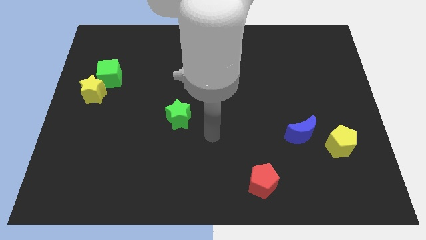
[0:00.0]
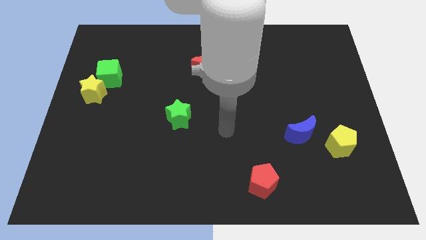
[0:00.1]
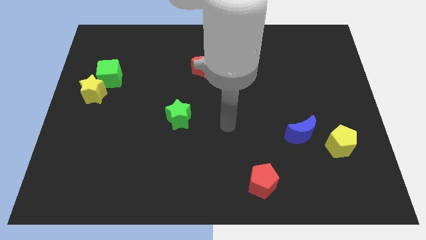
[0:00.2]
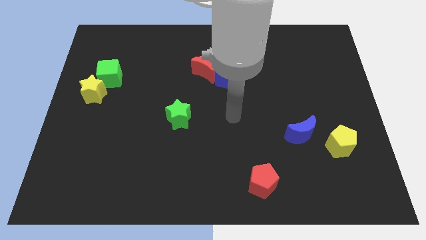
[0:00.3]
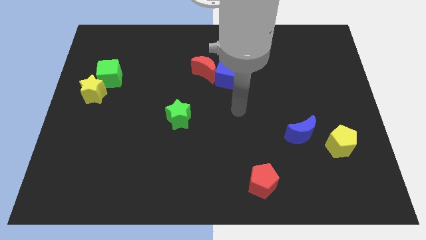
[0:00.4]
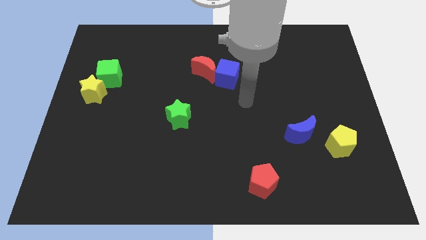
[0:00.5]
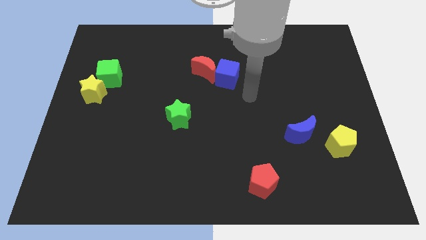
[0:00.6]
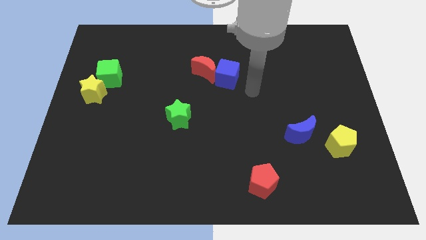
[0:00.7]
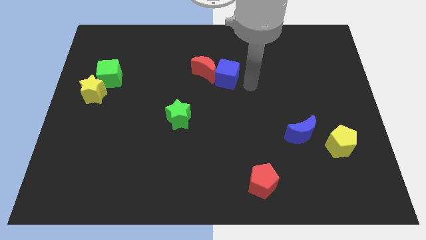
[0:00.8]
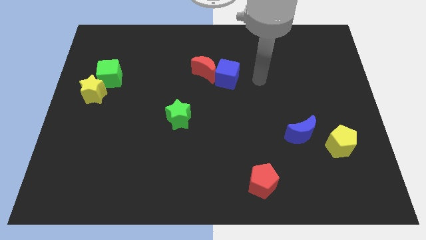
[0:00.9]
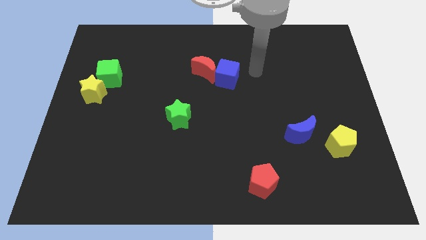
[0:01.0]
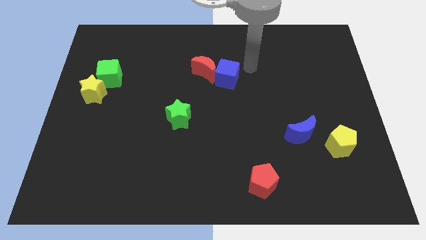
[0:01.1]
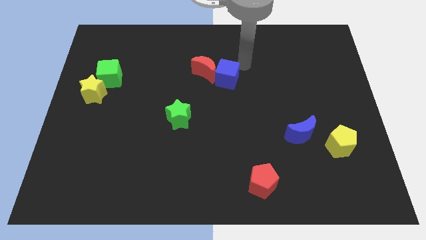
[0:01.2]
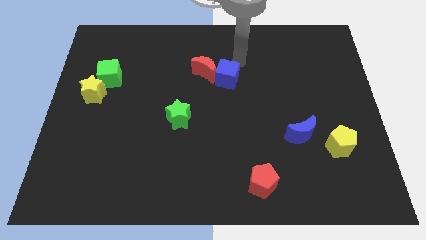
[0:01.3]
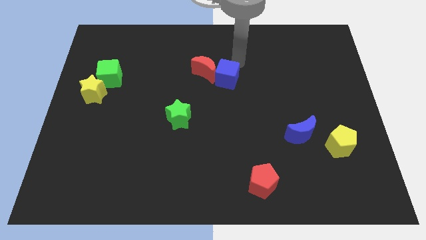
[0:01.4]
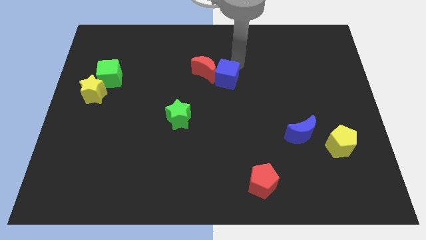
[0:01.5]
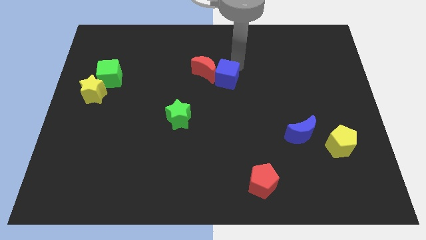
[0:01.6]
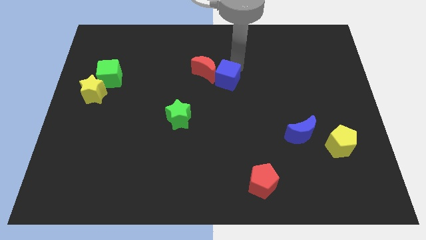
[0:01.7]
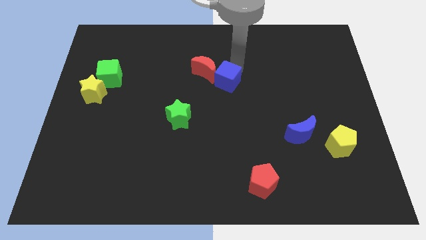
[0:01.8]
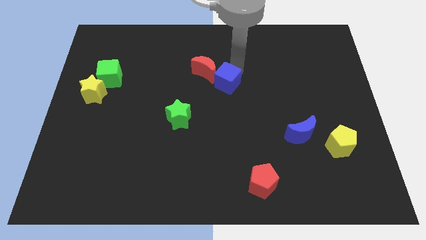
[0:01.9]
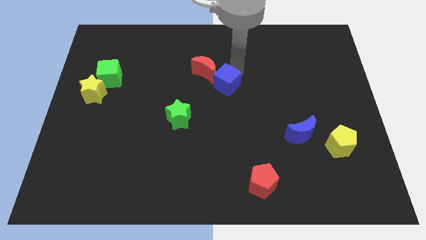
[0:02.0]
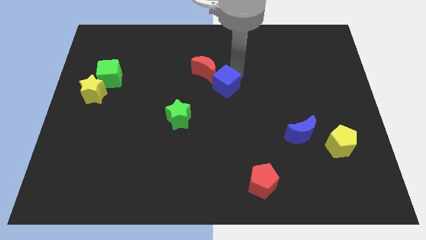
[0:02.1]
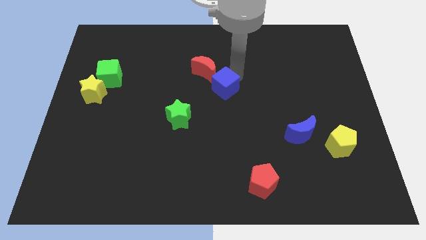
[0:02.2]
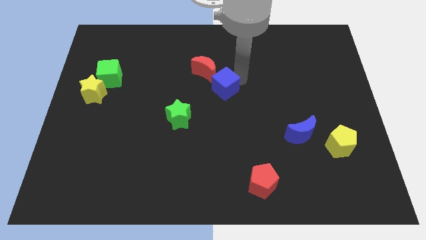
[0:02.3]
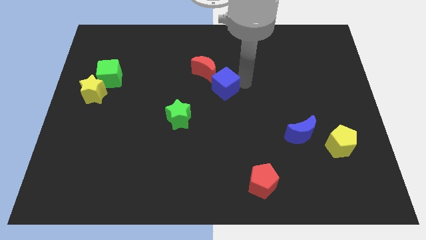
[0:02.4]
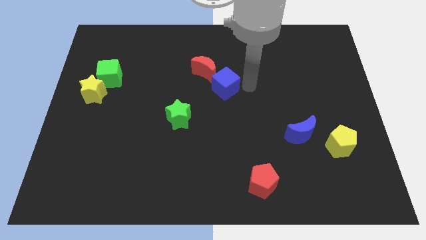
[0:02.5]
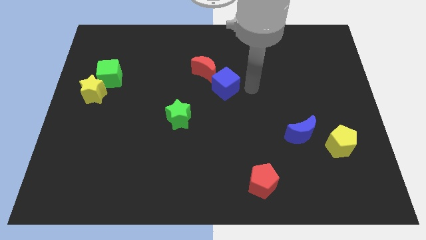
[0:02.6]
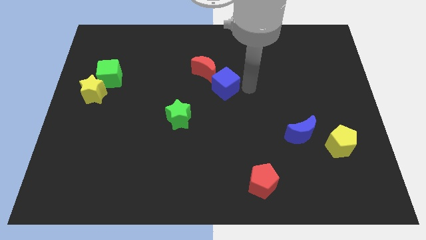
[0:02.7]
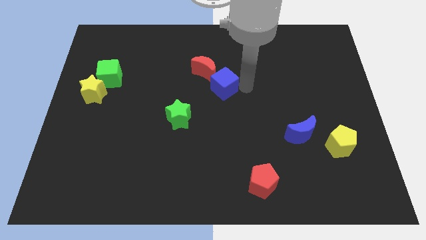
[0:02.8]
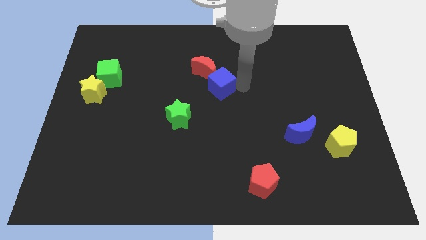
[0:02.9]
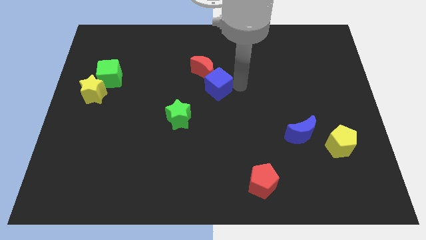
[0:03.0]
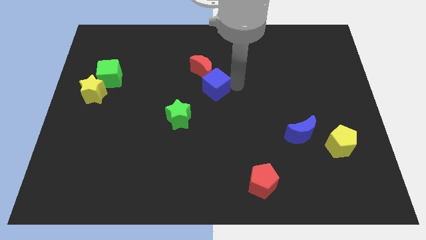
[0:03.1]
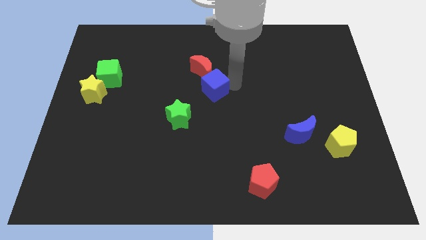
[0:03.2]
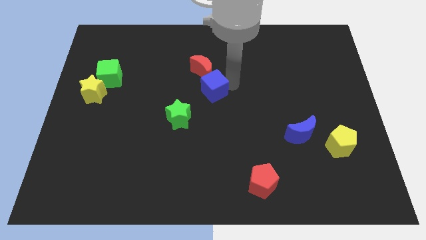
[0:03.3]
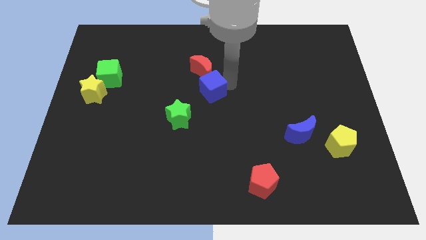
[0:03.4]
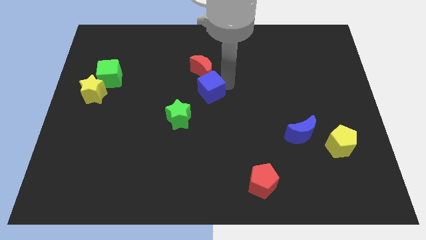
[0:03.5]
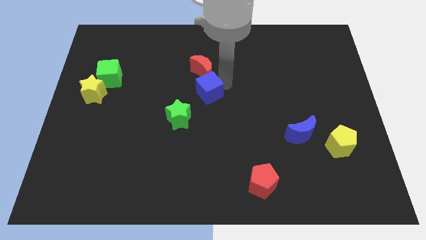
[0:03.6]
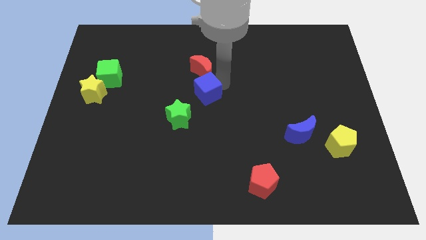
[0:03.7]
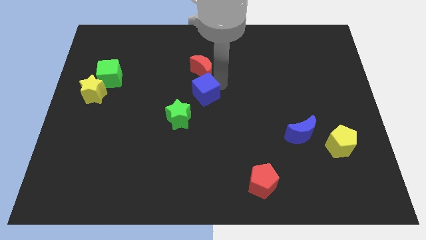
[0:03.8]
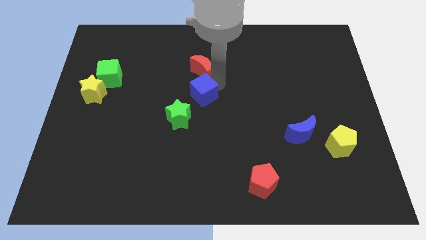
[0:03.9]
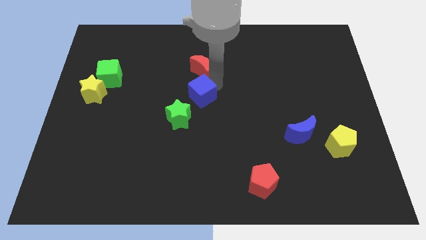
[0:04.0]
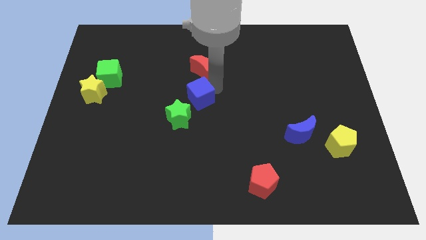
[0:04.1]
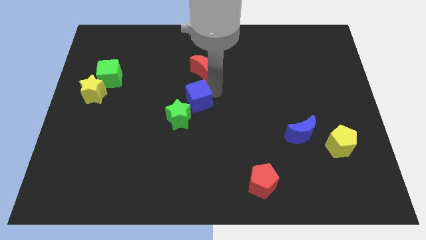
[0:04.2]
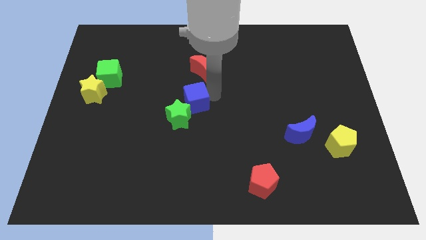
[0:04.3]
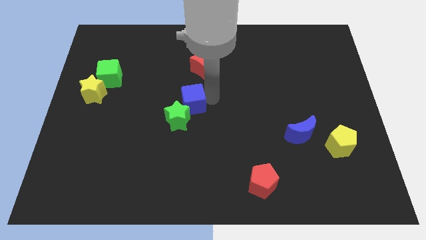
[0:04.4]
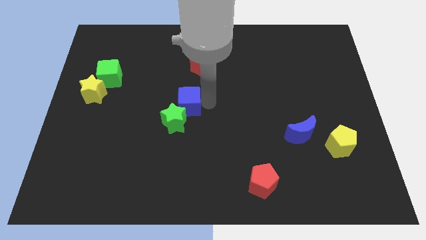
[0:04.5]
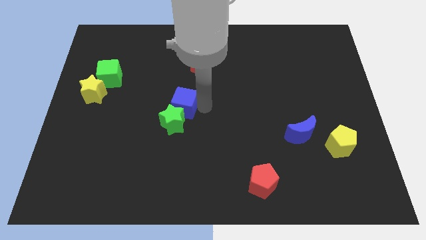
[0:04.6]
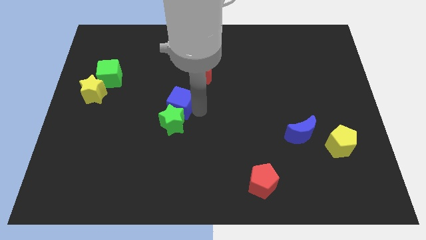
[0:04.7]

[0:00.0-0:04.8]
push the blue cube somewhat to the left

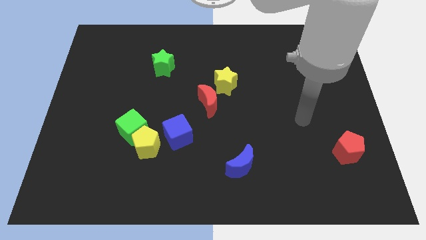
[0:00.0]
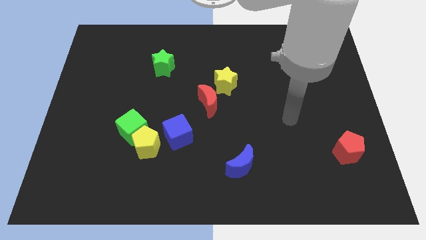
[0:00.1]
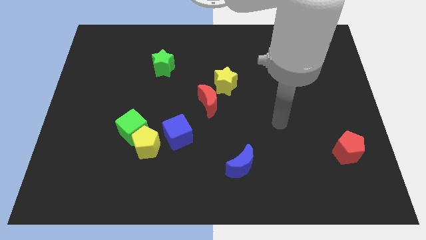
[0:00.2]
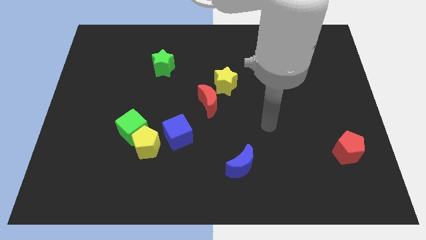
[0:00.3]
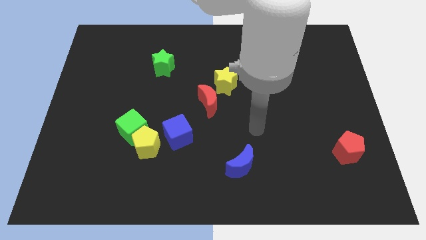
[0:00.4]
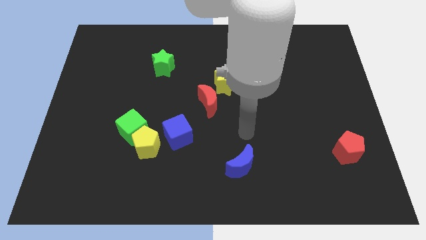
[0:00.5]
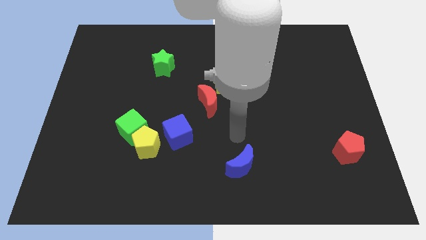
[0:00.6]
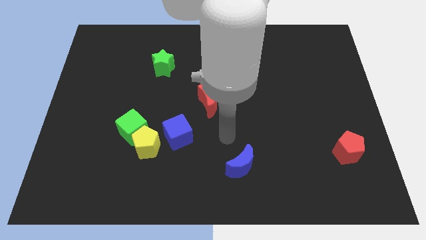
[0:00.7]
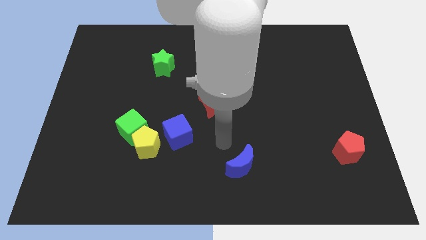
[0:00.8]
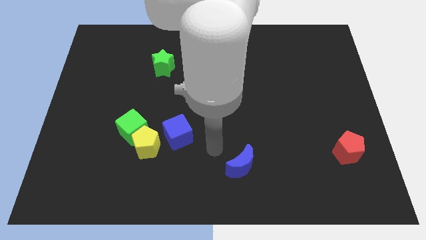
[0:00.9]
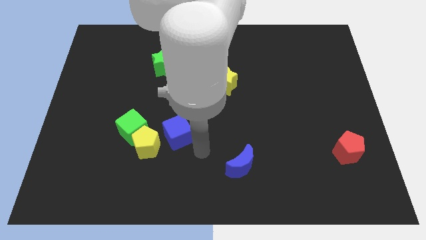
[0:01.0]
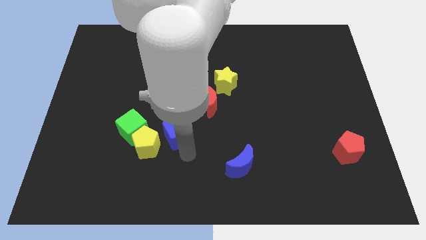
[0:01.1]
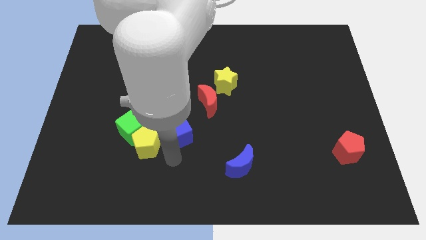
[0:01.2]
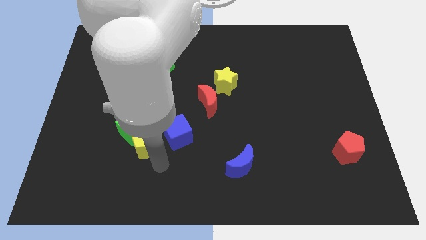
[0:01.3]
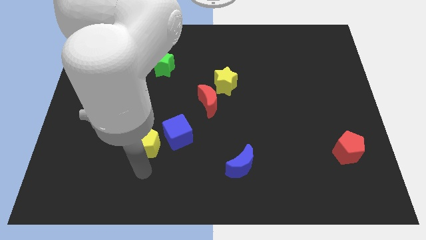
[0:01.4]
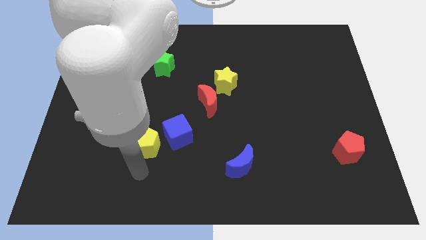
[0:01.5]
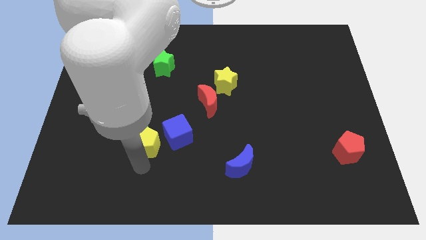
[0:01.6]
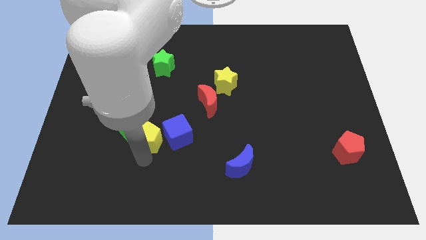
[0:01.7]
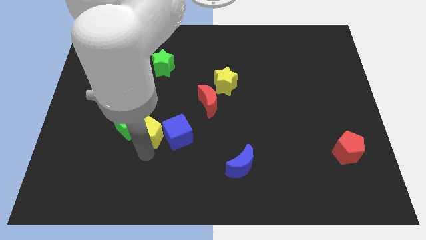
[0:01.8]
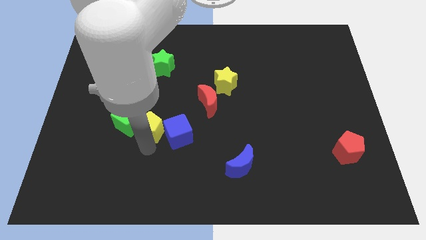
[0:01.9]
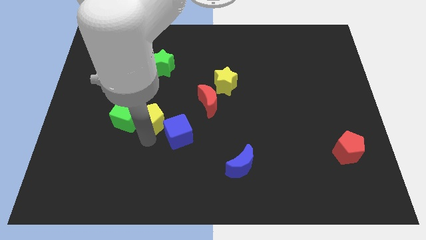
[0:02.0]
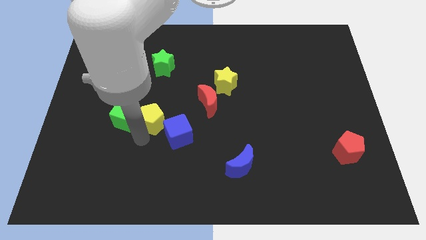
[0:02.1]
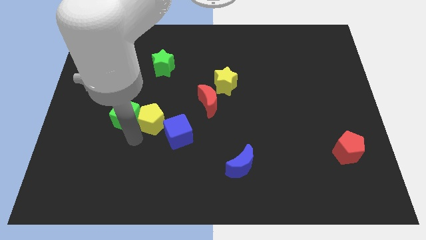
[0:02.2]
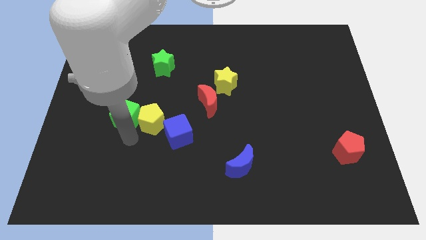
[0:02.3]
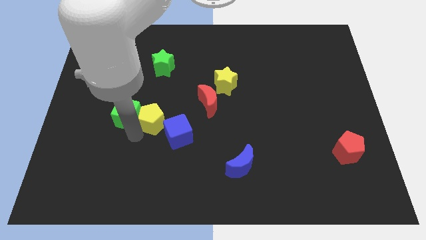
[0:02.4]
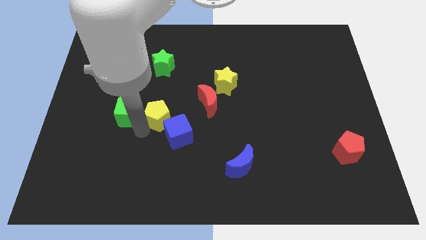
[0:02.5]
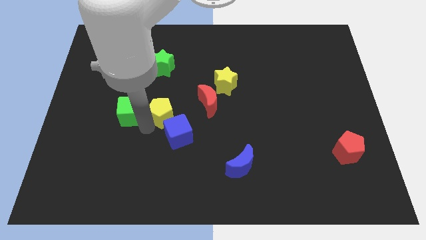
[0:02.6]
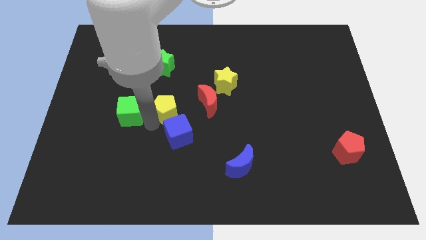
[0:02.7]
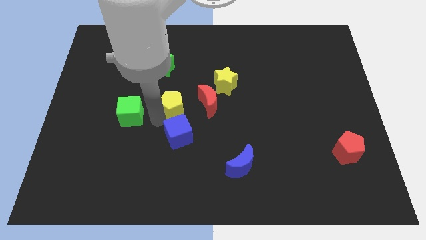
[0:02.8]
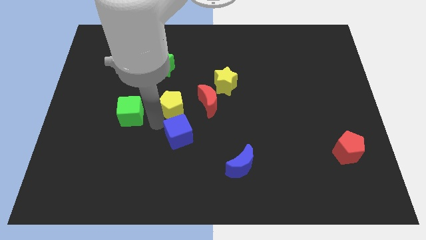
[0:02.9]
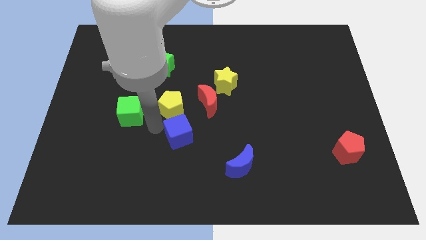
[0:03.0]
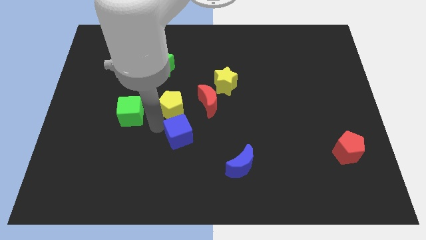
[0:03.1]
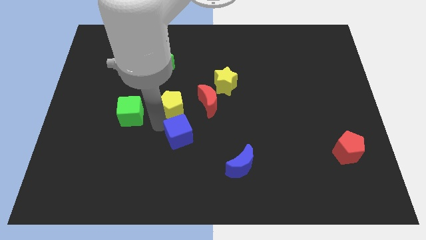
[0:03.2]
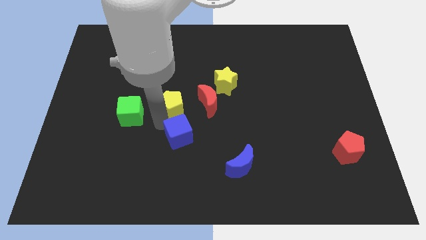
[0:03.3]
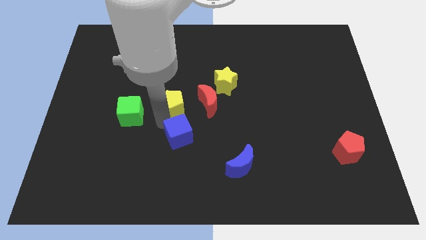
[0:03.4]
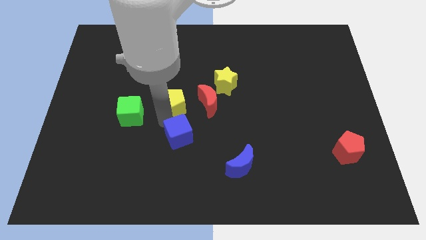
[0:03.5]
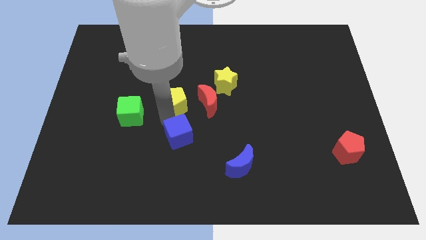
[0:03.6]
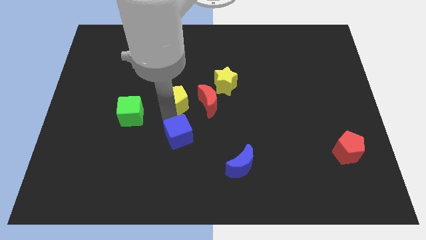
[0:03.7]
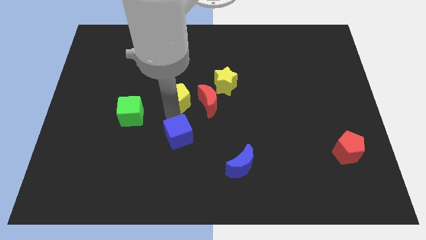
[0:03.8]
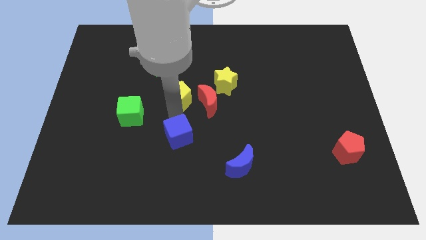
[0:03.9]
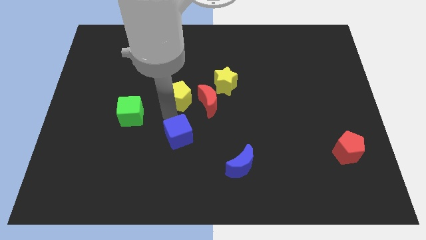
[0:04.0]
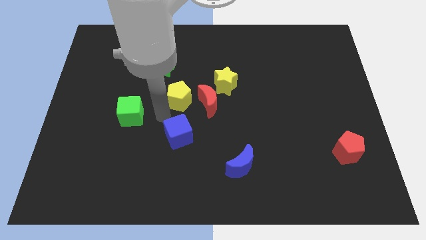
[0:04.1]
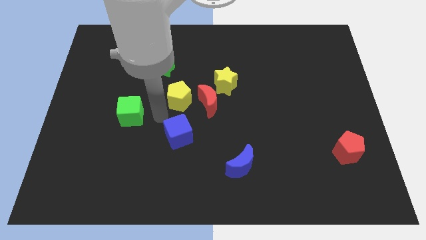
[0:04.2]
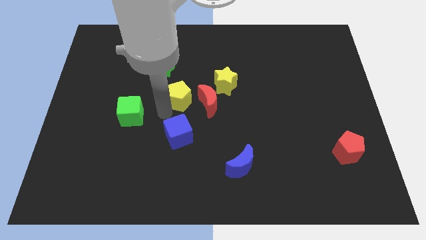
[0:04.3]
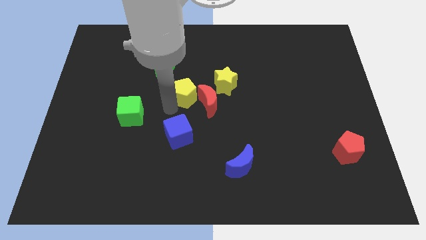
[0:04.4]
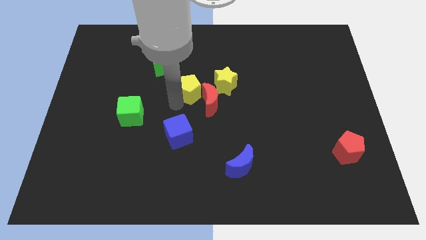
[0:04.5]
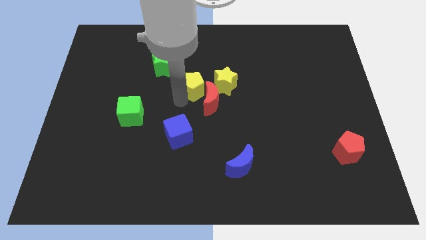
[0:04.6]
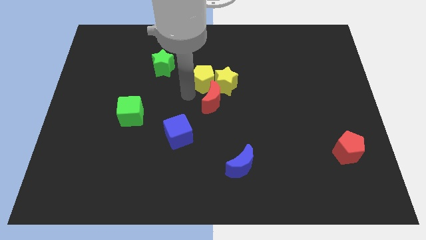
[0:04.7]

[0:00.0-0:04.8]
move the yellow pentagon diagonally upwards and right
